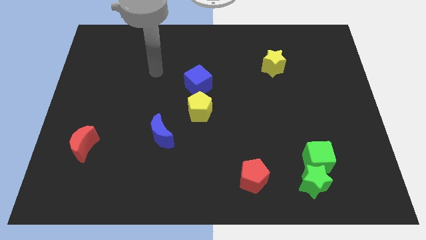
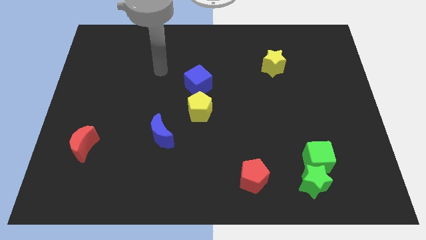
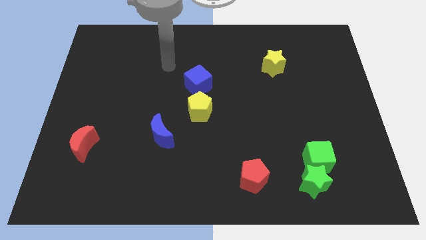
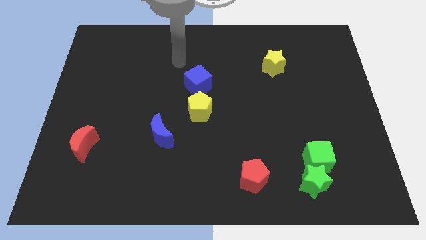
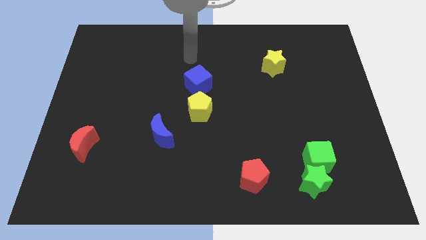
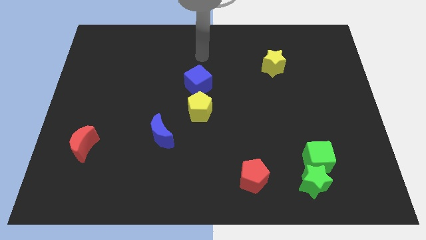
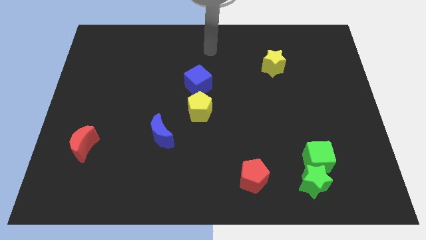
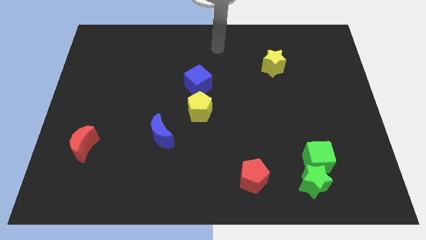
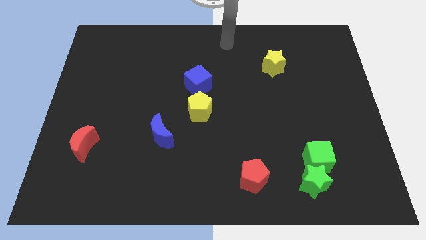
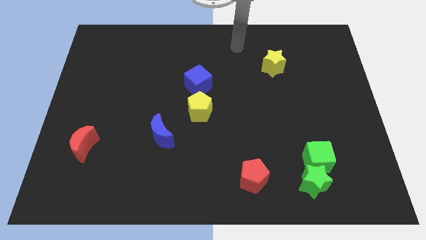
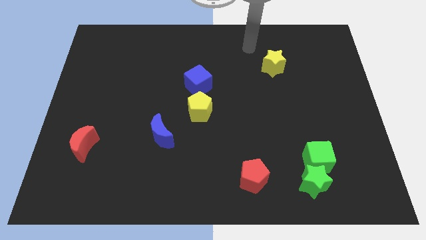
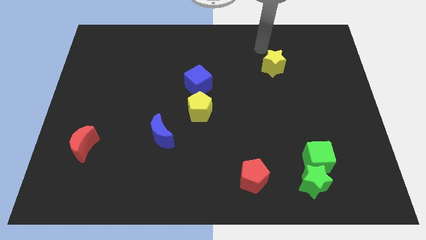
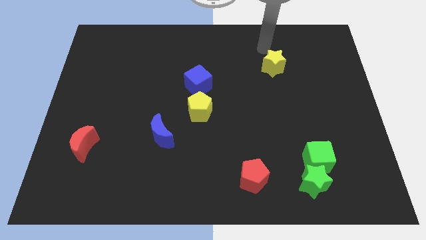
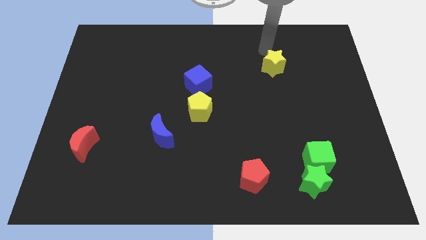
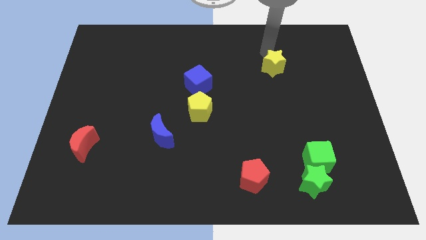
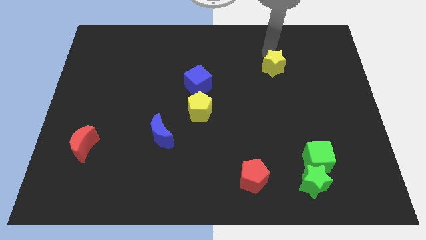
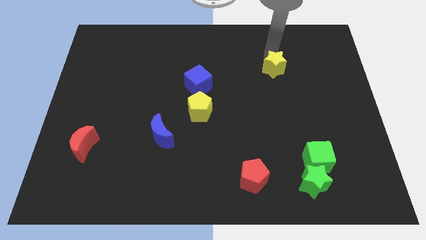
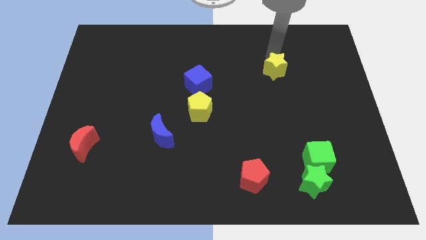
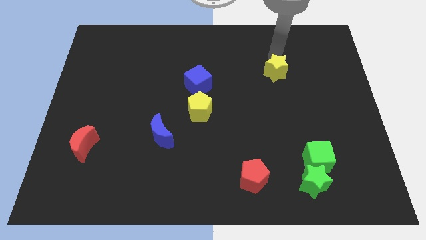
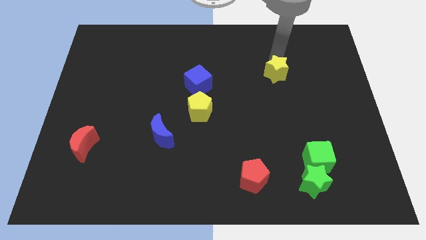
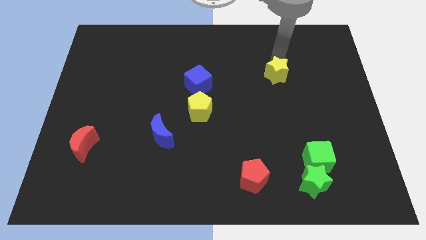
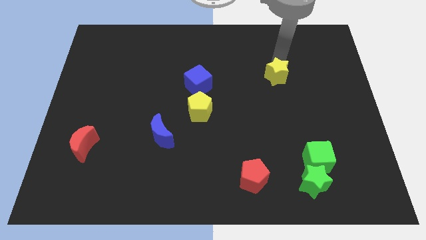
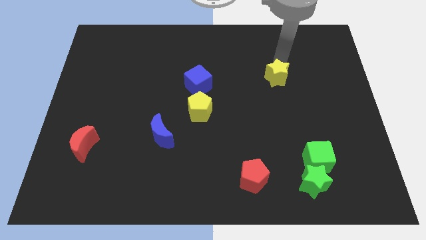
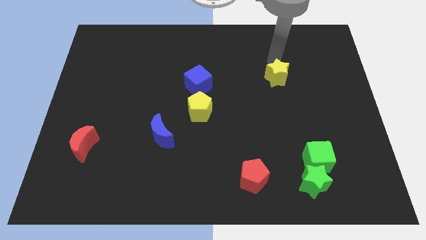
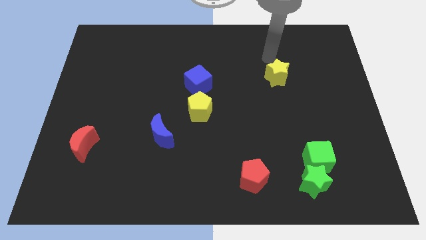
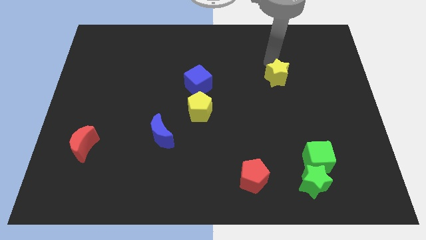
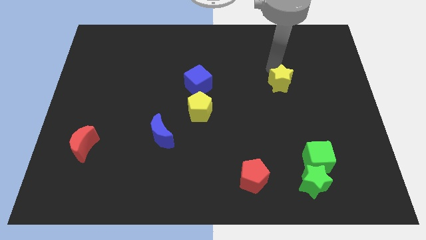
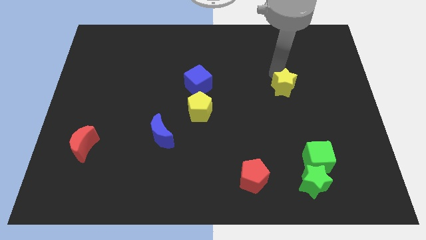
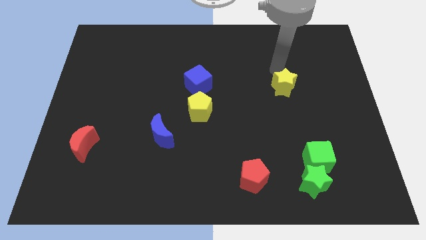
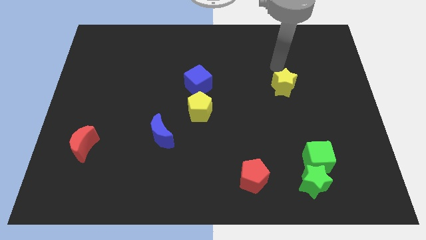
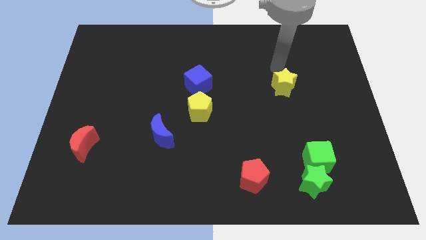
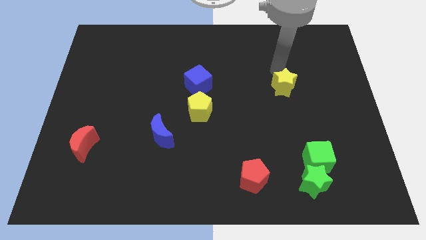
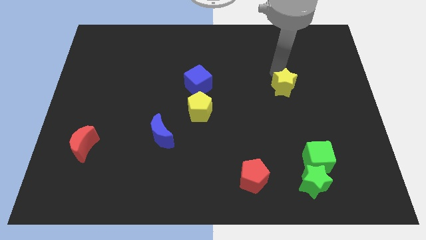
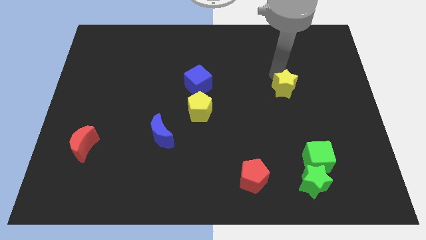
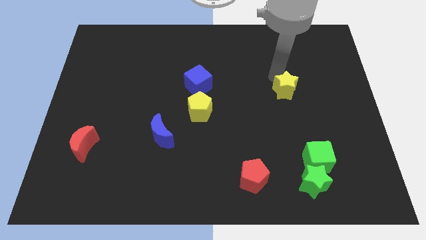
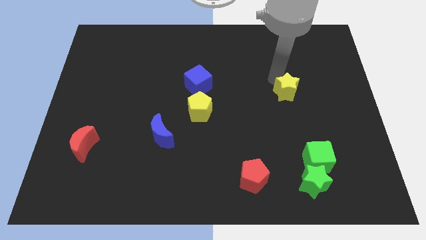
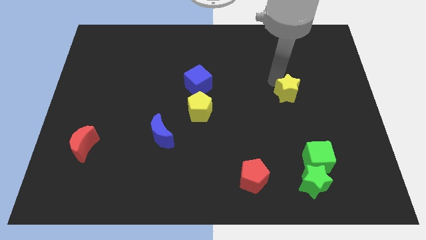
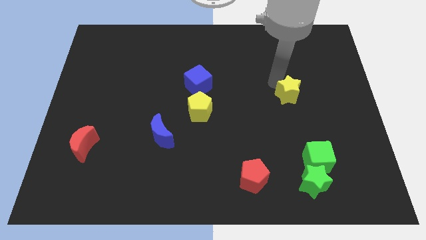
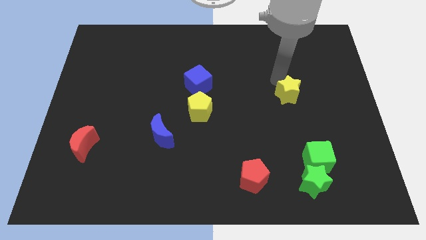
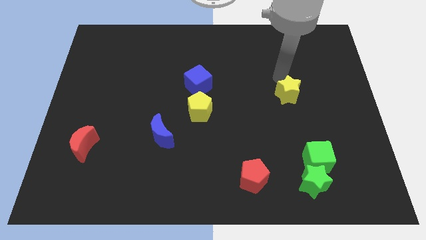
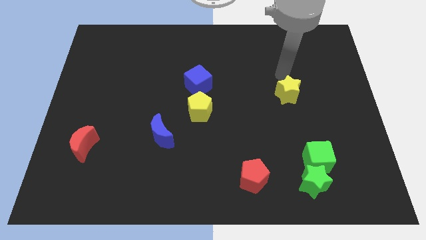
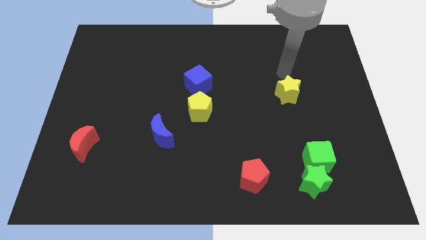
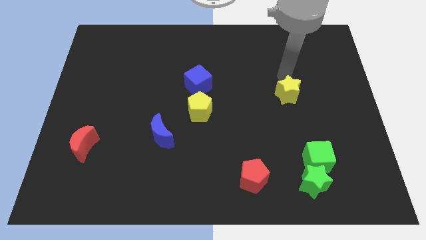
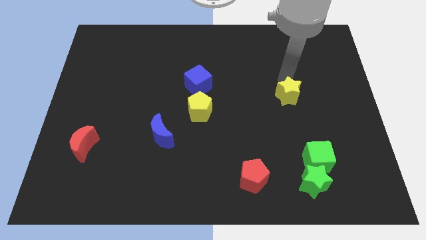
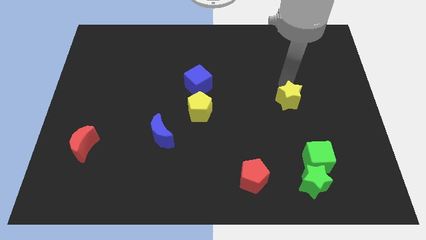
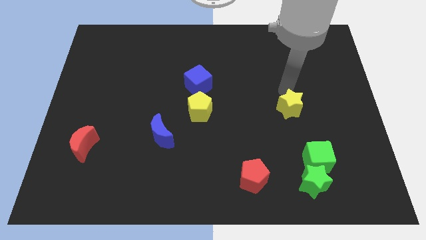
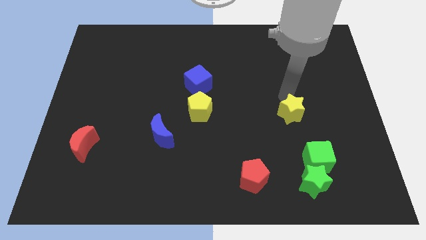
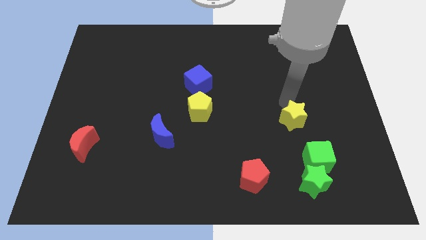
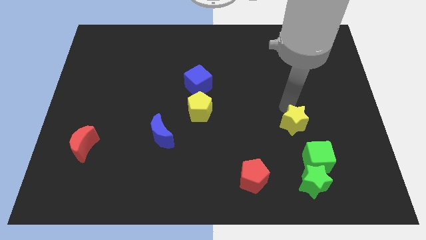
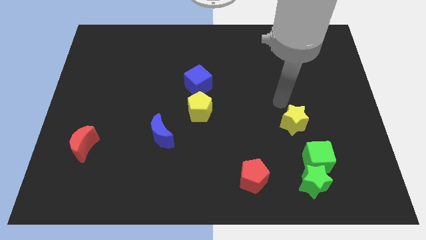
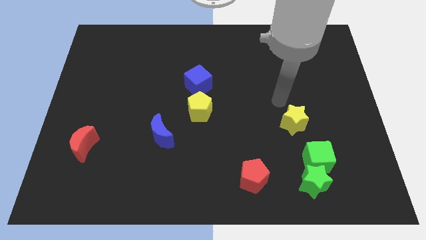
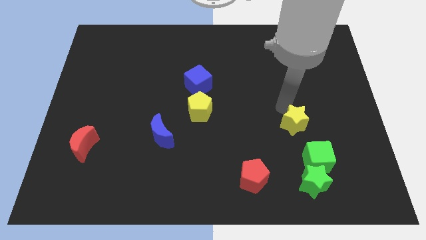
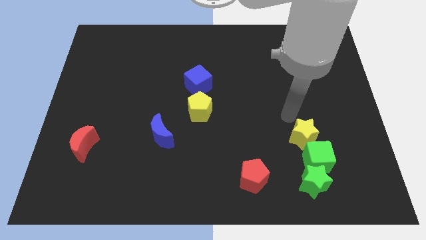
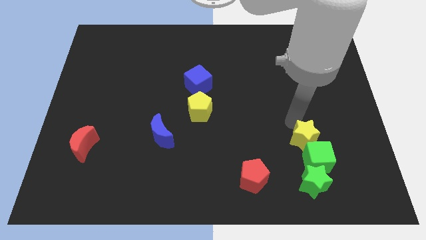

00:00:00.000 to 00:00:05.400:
put the yellow star to the green cube

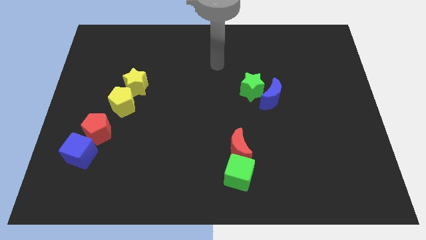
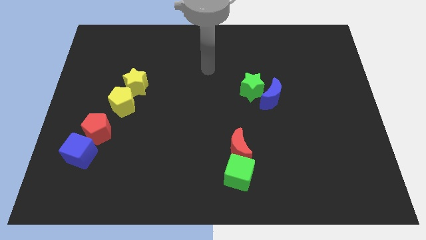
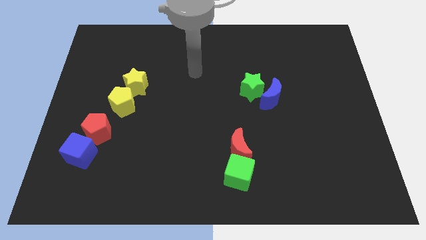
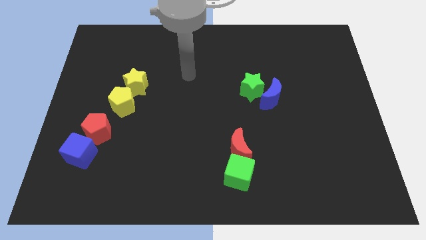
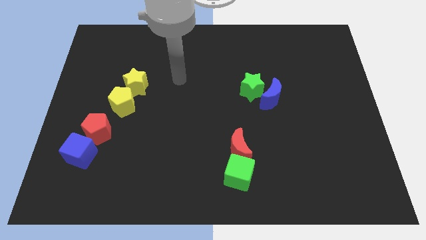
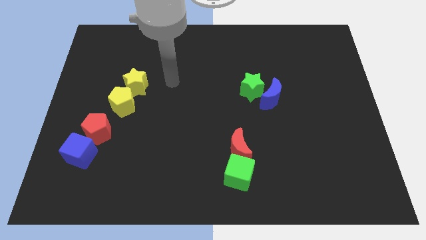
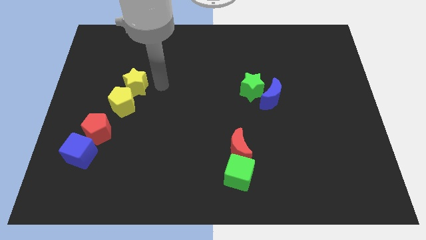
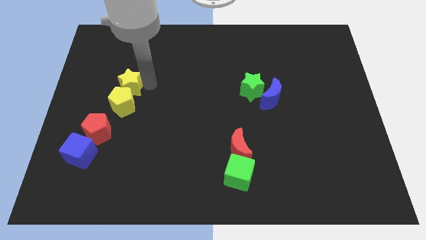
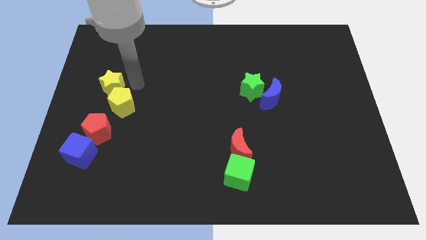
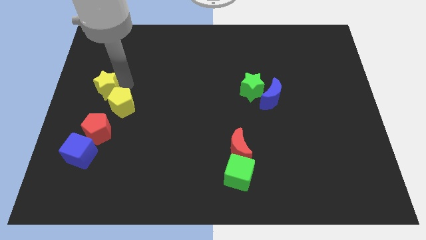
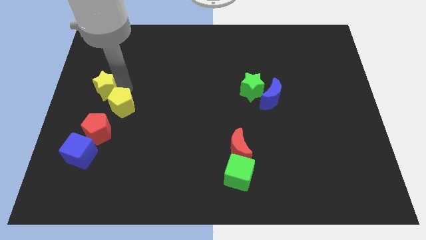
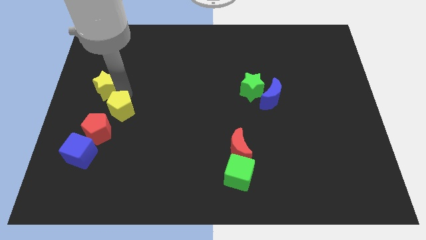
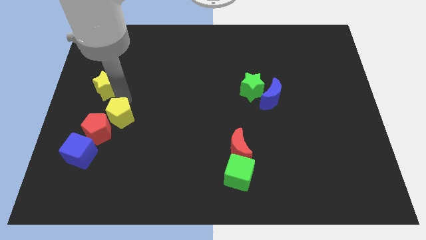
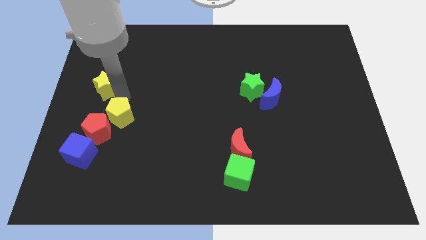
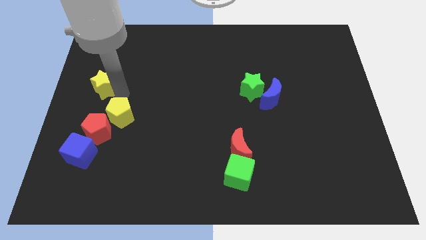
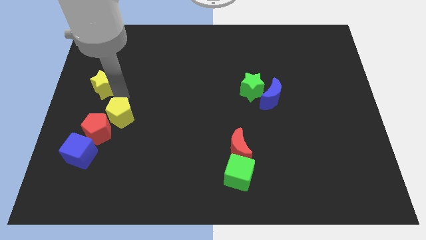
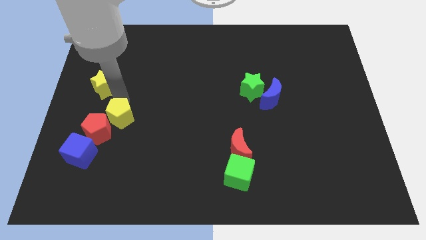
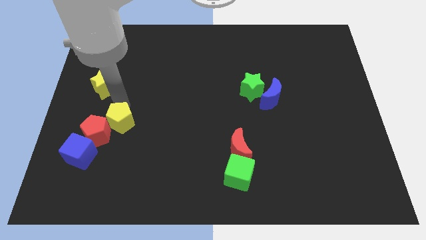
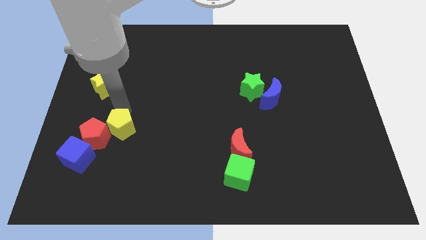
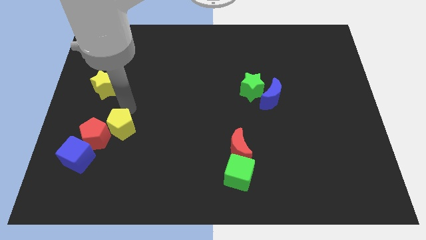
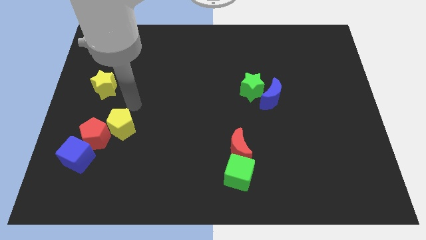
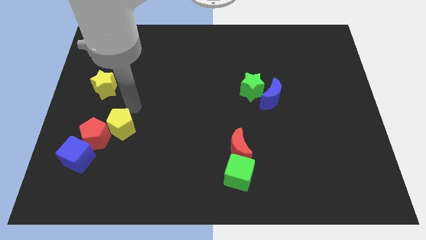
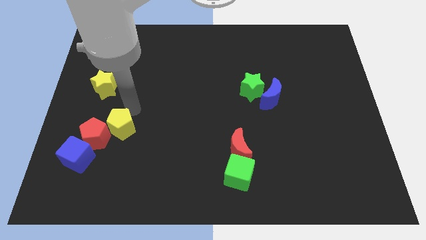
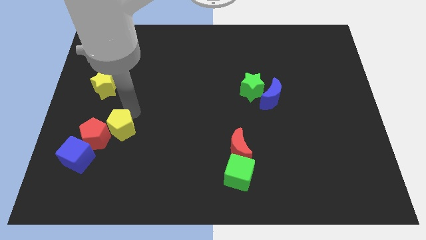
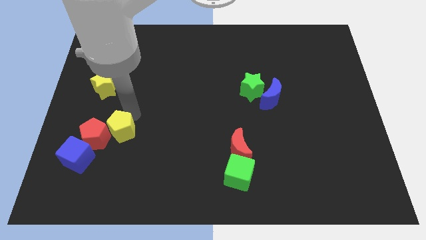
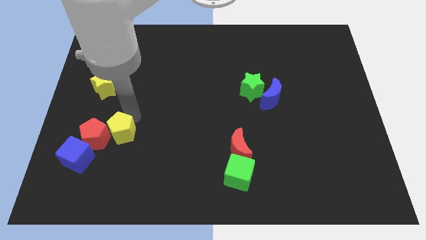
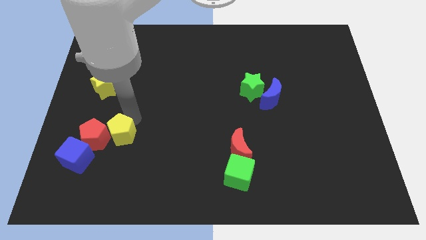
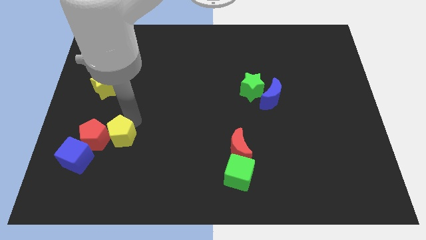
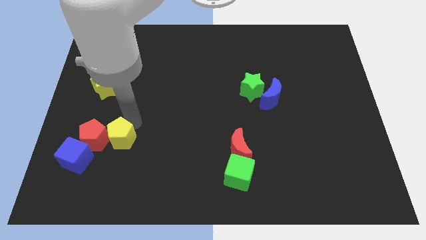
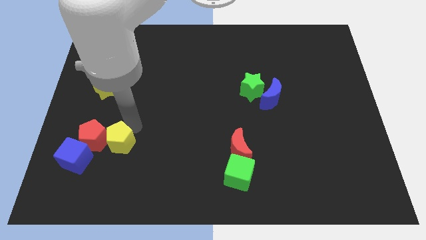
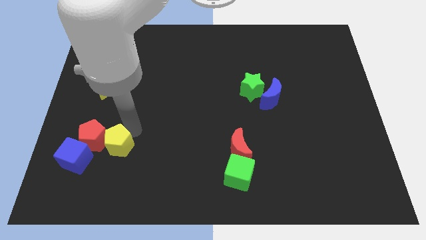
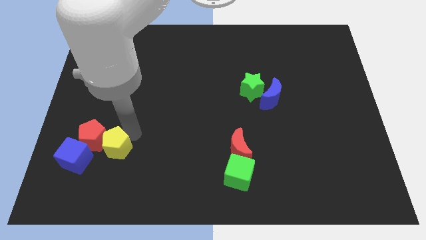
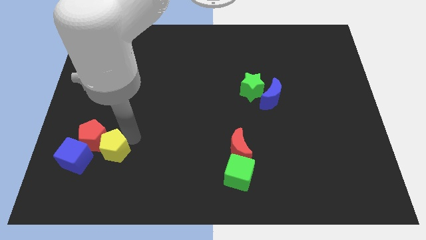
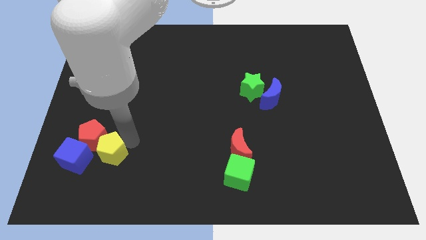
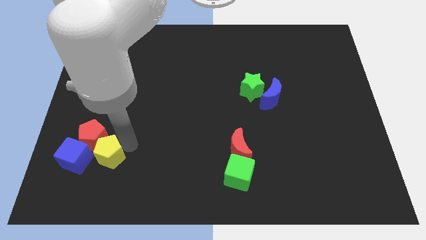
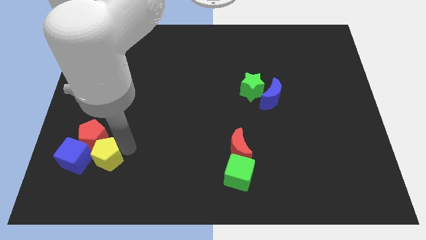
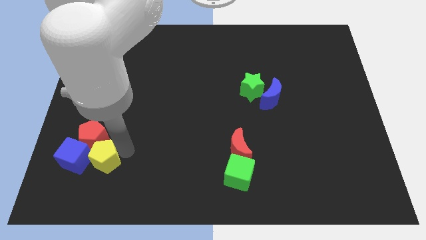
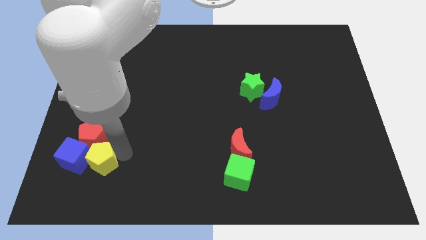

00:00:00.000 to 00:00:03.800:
put the yellow pentagon next to the blue cube
